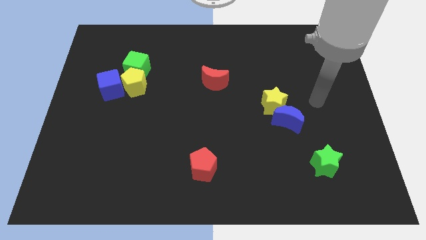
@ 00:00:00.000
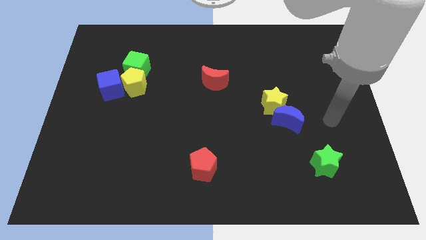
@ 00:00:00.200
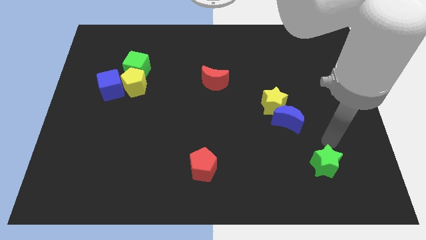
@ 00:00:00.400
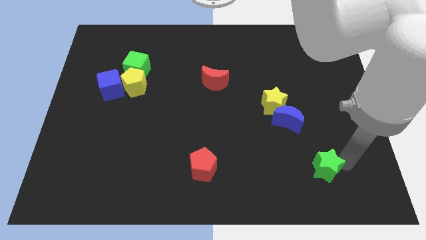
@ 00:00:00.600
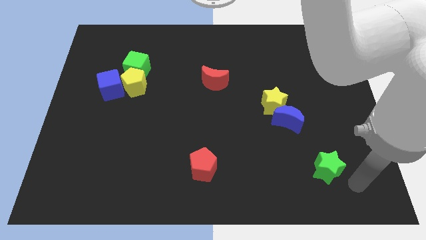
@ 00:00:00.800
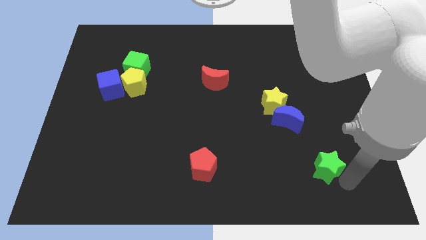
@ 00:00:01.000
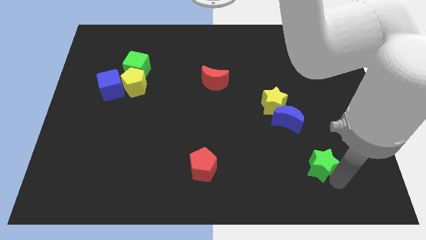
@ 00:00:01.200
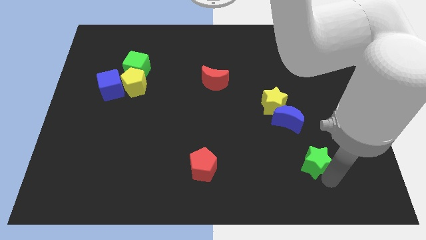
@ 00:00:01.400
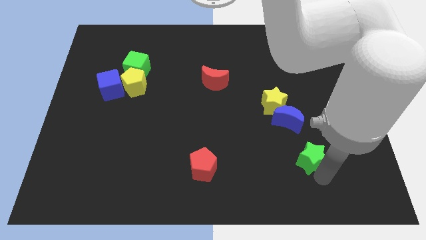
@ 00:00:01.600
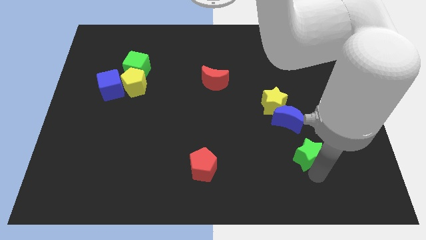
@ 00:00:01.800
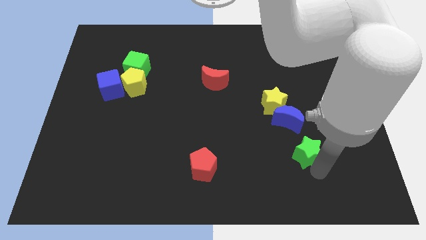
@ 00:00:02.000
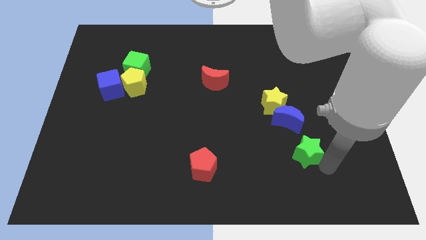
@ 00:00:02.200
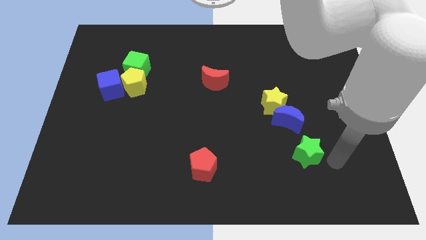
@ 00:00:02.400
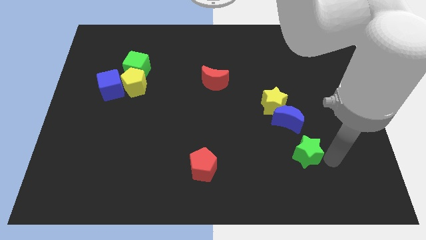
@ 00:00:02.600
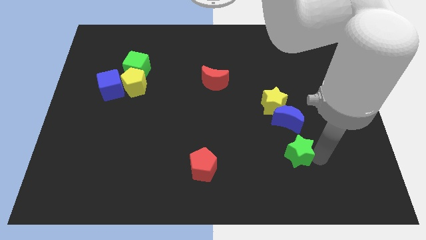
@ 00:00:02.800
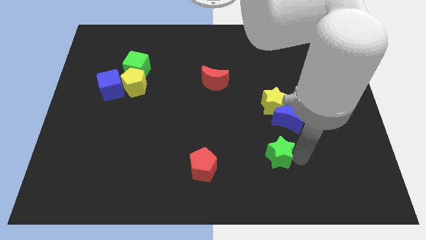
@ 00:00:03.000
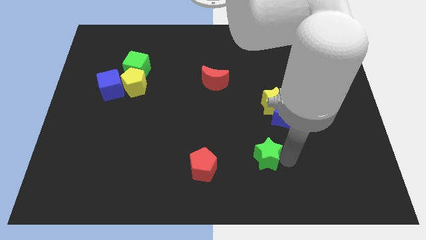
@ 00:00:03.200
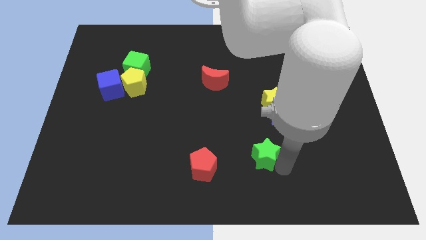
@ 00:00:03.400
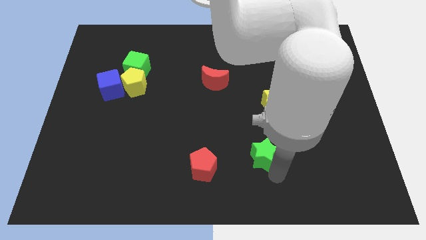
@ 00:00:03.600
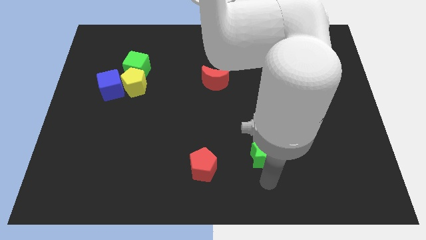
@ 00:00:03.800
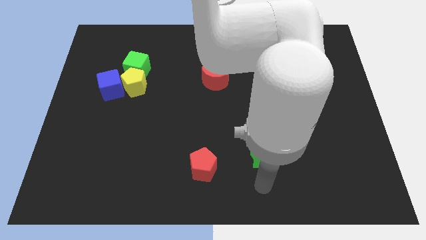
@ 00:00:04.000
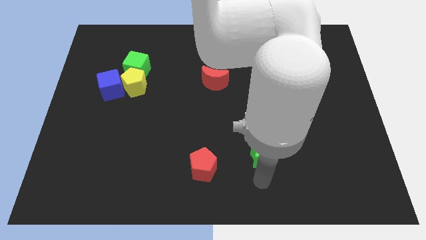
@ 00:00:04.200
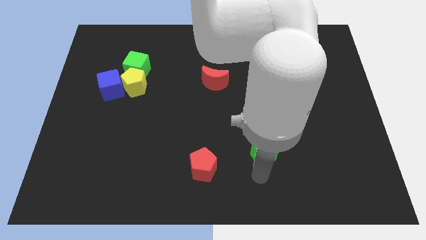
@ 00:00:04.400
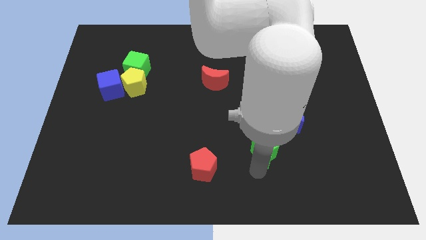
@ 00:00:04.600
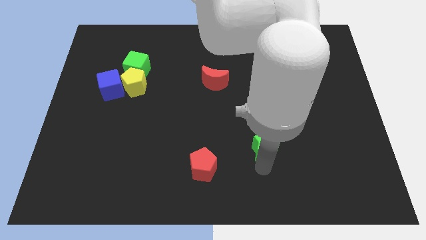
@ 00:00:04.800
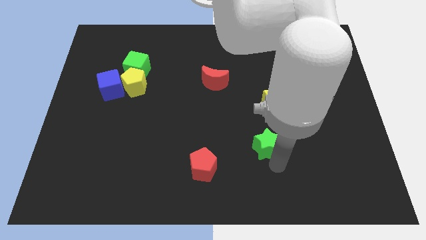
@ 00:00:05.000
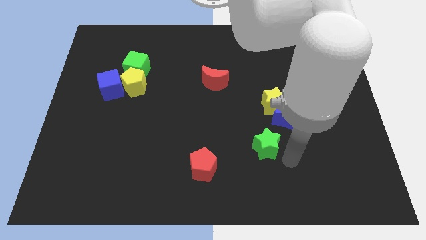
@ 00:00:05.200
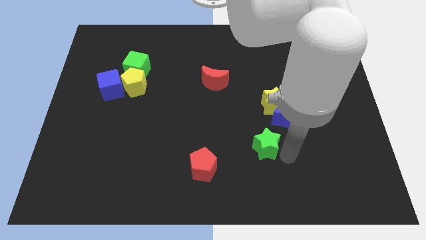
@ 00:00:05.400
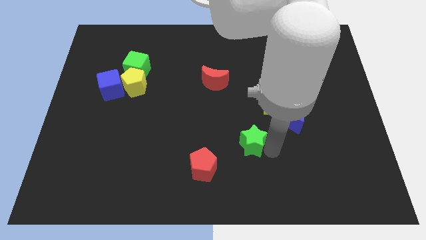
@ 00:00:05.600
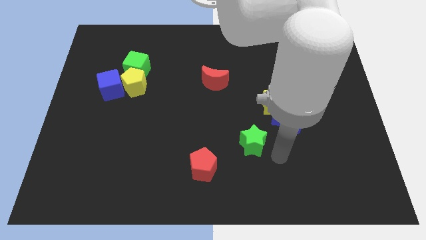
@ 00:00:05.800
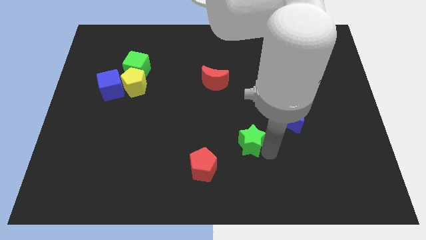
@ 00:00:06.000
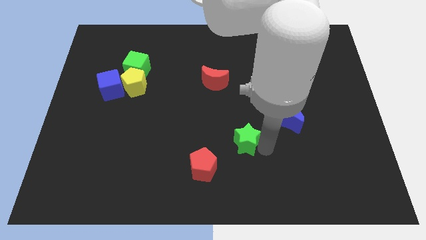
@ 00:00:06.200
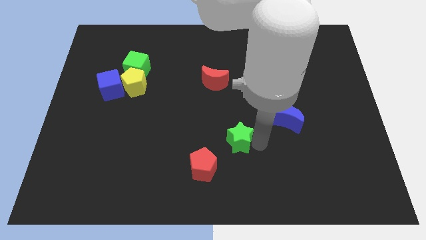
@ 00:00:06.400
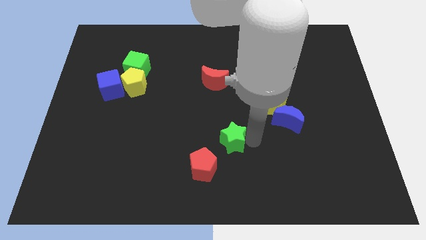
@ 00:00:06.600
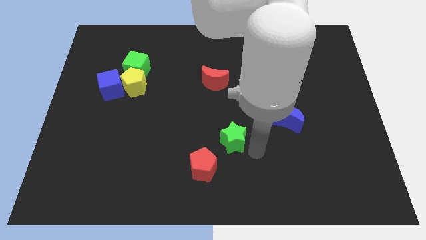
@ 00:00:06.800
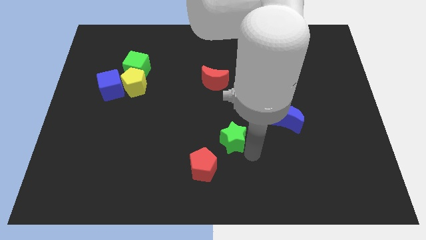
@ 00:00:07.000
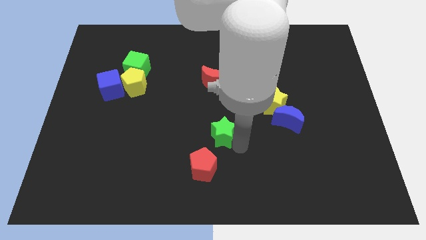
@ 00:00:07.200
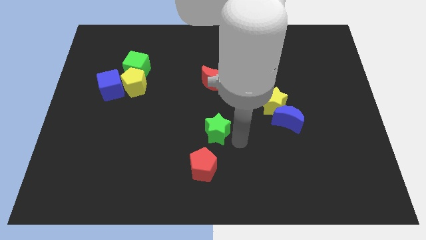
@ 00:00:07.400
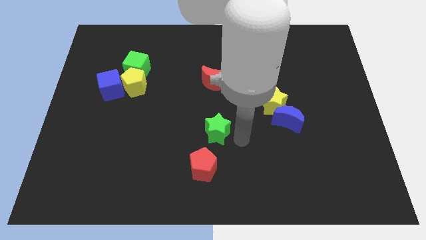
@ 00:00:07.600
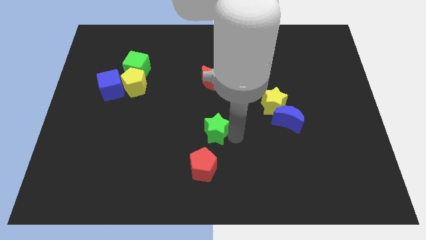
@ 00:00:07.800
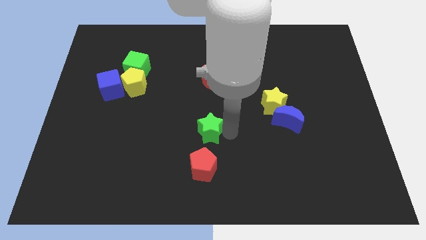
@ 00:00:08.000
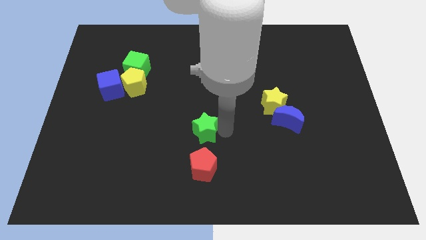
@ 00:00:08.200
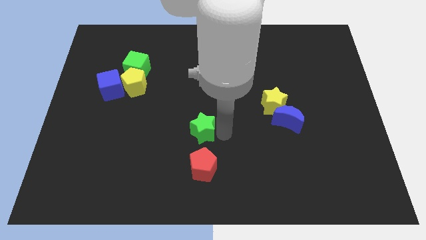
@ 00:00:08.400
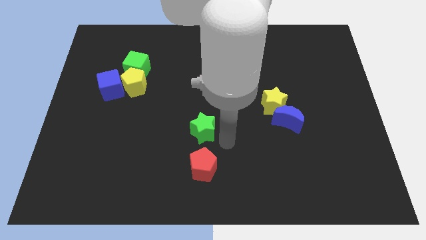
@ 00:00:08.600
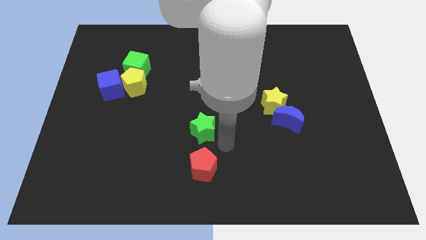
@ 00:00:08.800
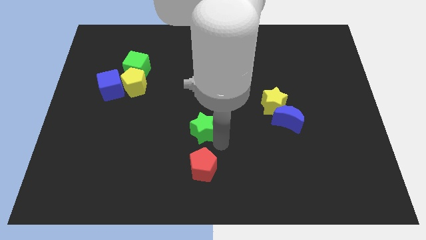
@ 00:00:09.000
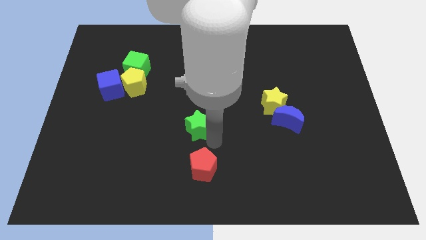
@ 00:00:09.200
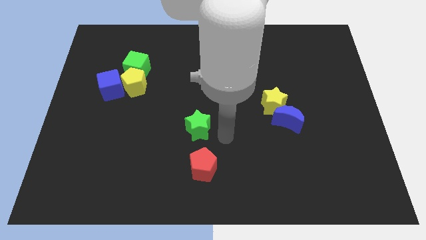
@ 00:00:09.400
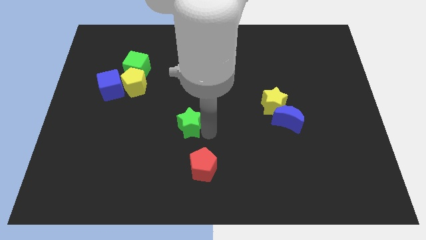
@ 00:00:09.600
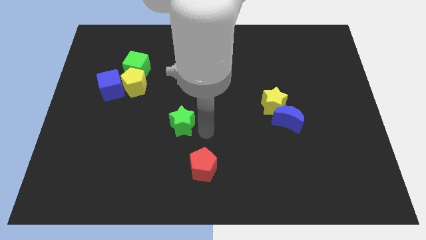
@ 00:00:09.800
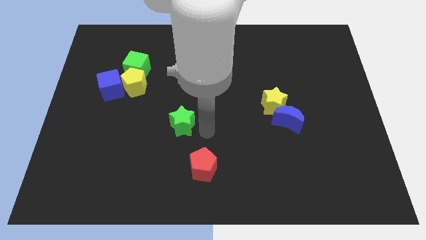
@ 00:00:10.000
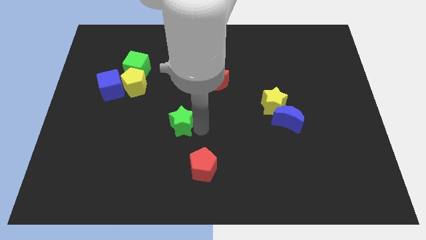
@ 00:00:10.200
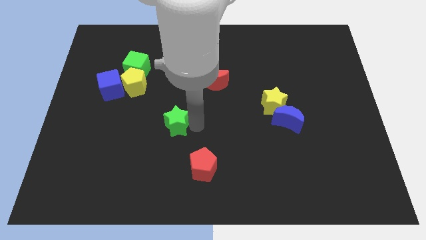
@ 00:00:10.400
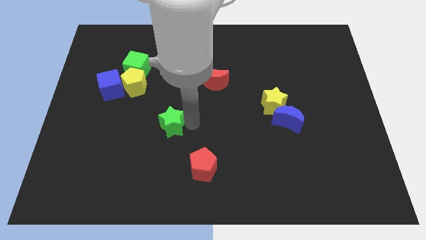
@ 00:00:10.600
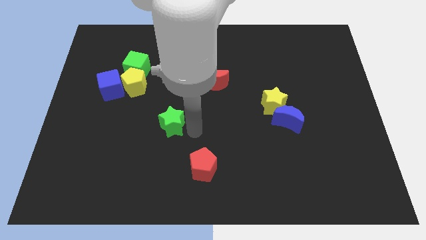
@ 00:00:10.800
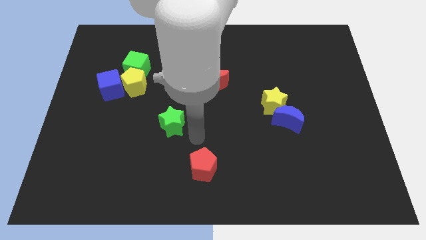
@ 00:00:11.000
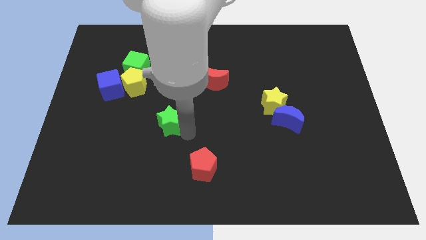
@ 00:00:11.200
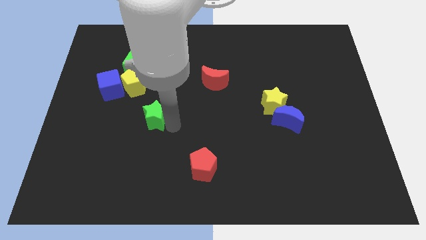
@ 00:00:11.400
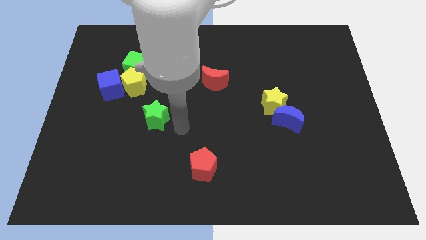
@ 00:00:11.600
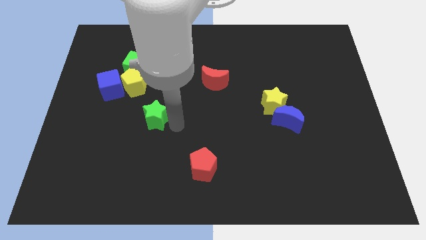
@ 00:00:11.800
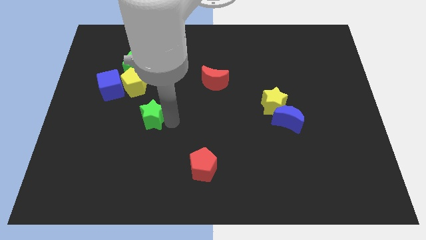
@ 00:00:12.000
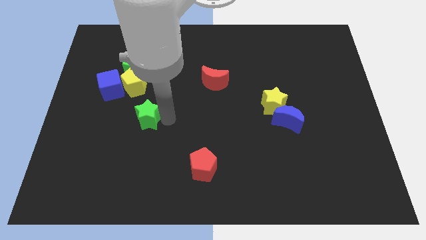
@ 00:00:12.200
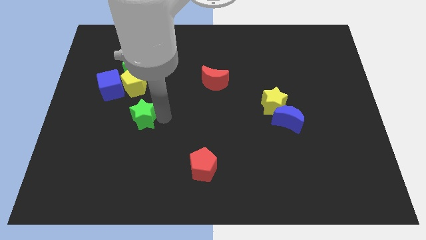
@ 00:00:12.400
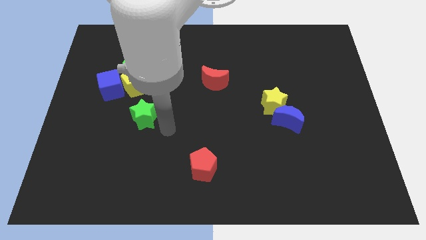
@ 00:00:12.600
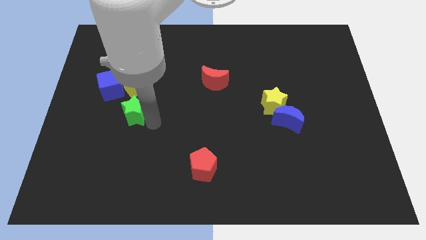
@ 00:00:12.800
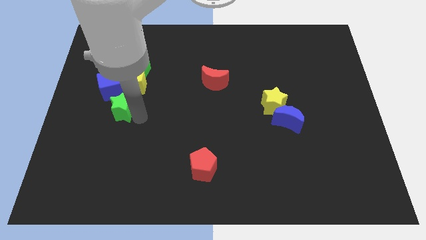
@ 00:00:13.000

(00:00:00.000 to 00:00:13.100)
put the green star to the bottom left side of the yellow pentagon

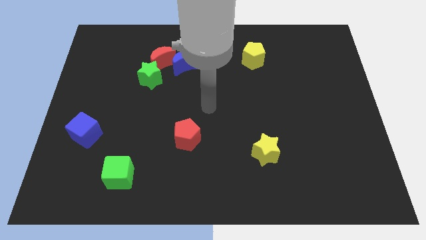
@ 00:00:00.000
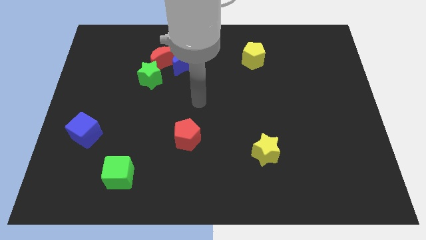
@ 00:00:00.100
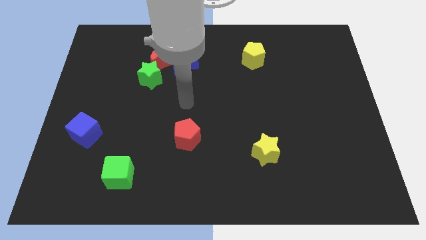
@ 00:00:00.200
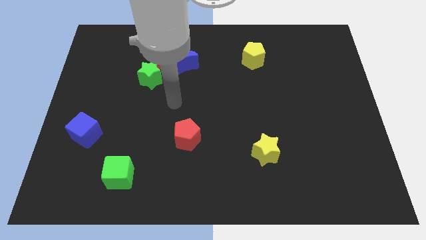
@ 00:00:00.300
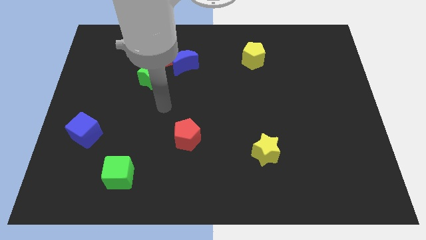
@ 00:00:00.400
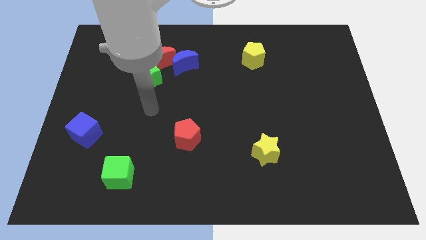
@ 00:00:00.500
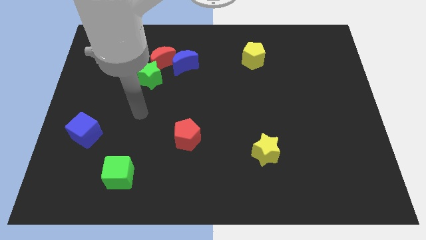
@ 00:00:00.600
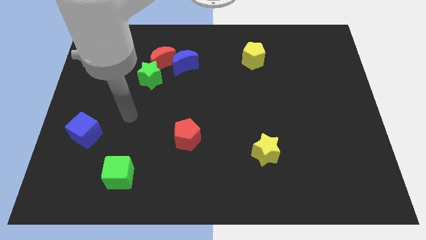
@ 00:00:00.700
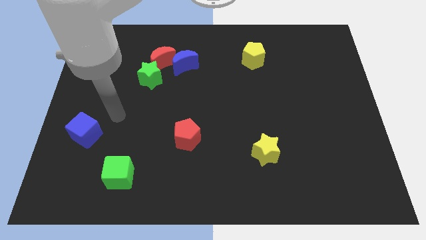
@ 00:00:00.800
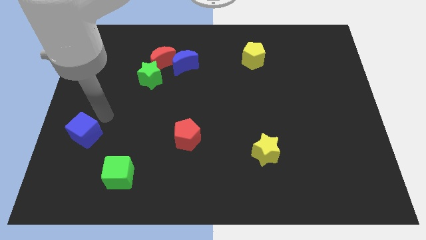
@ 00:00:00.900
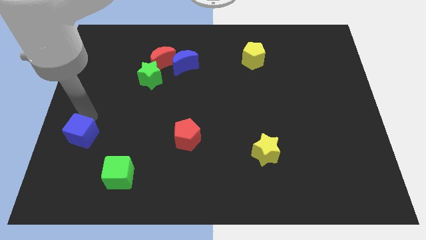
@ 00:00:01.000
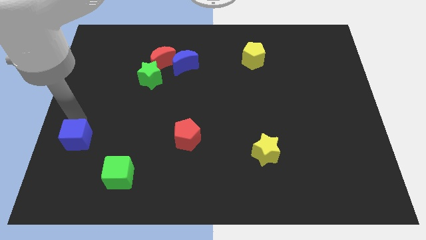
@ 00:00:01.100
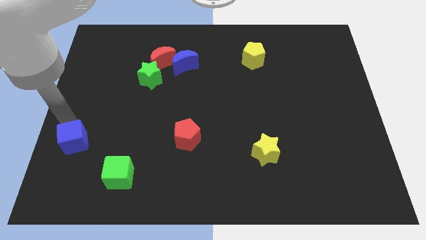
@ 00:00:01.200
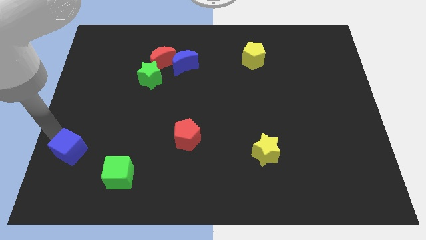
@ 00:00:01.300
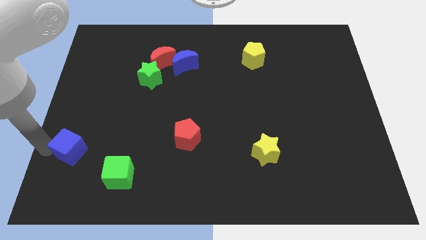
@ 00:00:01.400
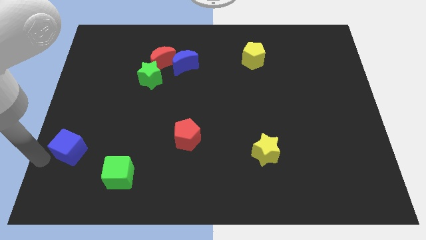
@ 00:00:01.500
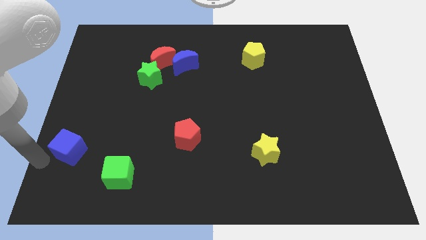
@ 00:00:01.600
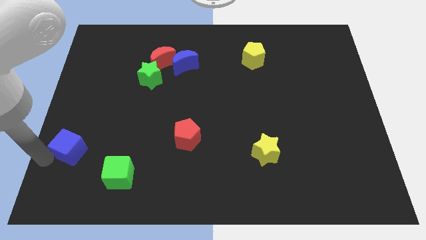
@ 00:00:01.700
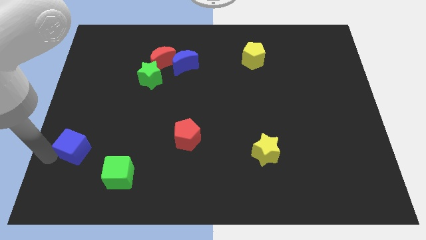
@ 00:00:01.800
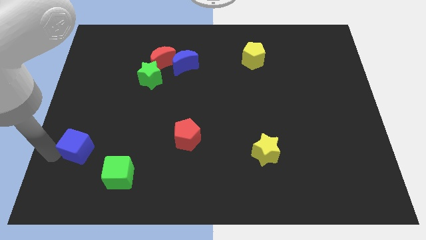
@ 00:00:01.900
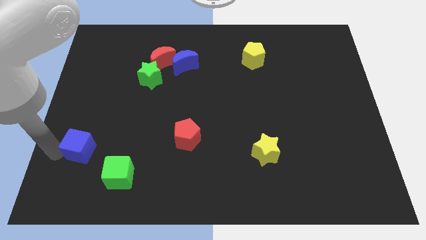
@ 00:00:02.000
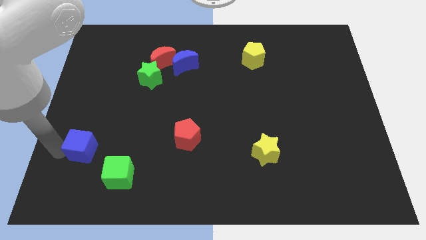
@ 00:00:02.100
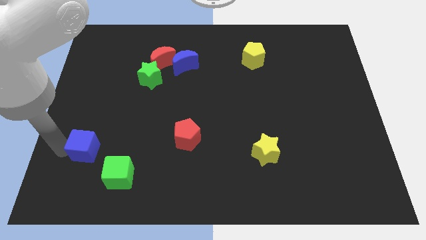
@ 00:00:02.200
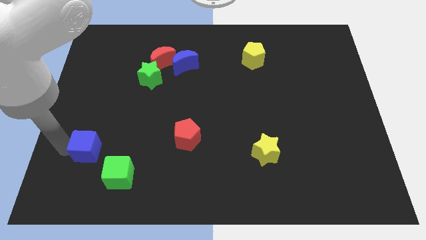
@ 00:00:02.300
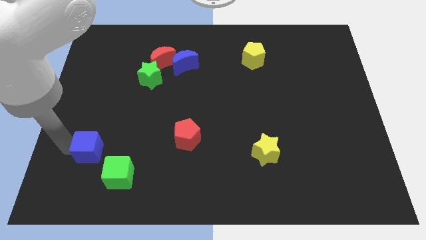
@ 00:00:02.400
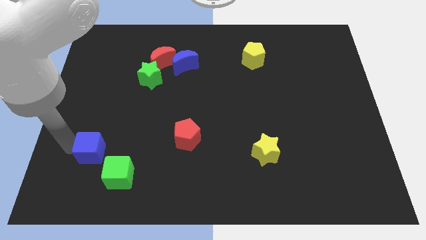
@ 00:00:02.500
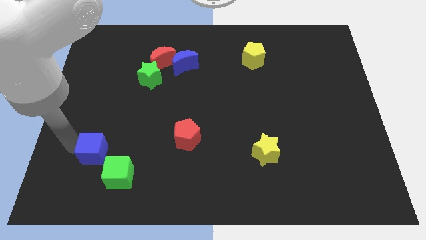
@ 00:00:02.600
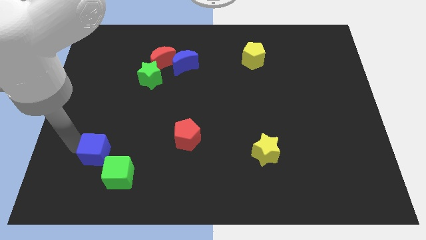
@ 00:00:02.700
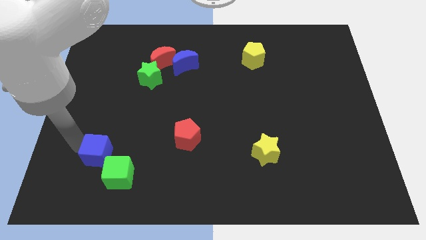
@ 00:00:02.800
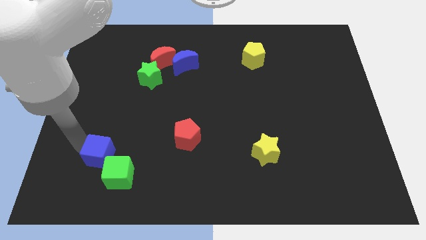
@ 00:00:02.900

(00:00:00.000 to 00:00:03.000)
slide the blue cube to the top side of the green cube
